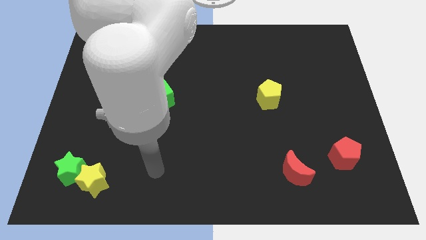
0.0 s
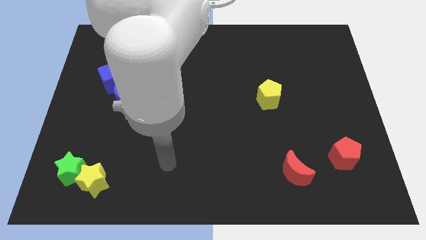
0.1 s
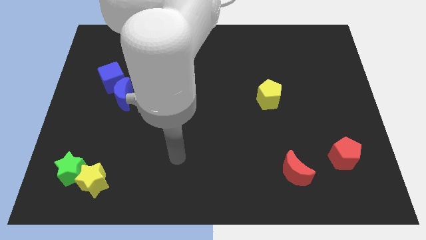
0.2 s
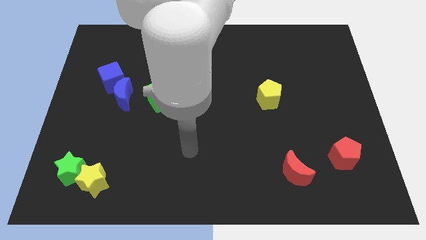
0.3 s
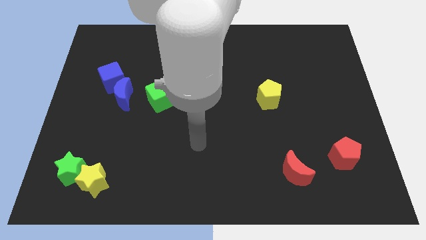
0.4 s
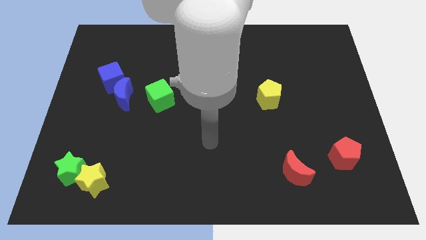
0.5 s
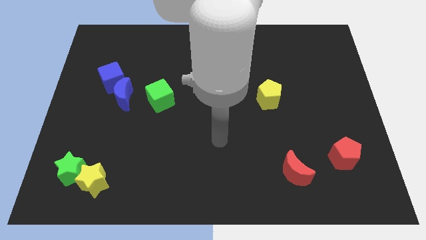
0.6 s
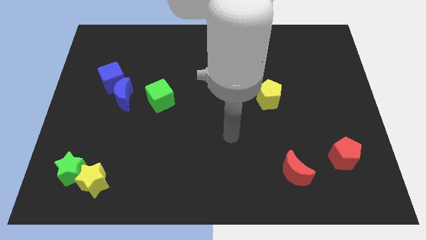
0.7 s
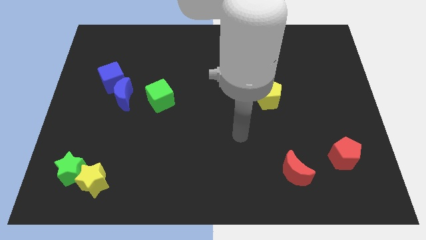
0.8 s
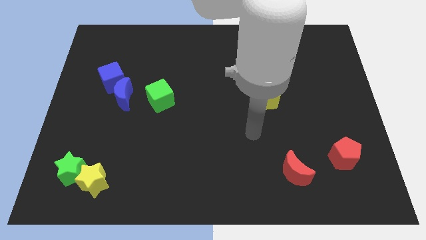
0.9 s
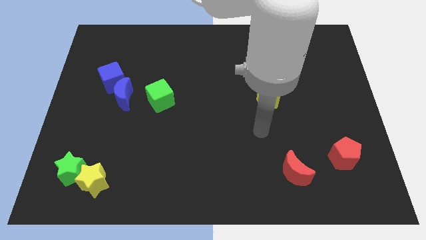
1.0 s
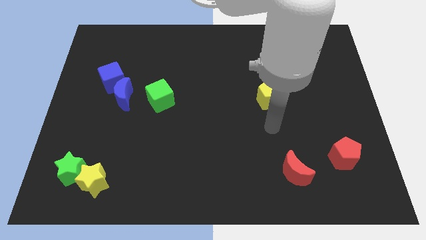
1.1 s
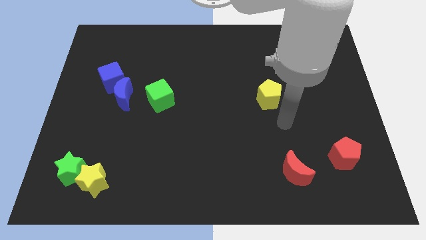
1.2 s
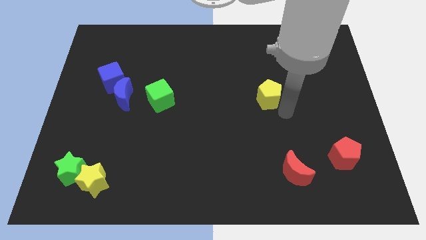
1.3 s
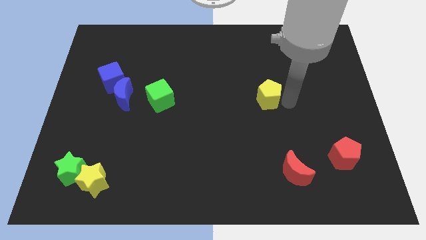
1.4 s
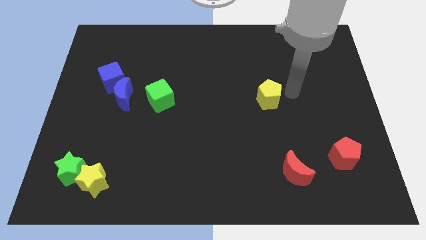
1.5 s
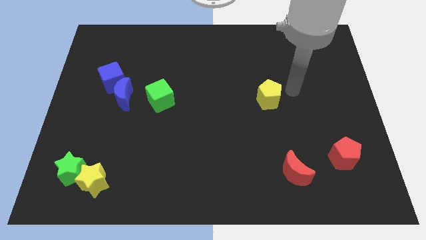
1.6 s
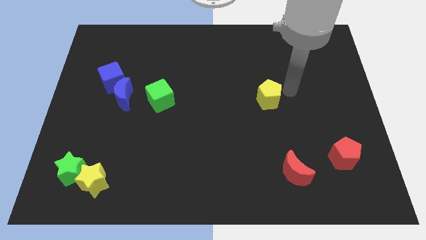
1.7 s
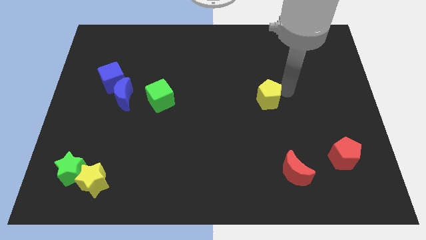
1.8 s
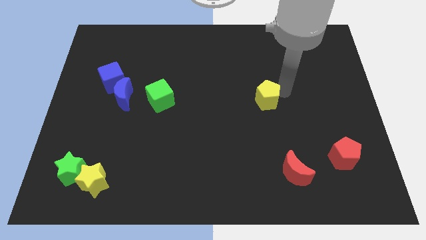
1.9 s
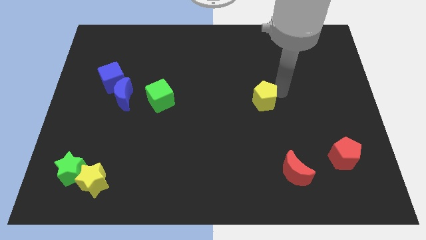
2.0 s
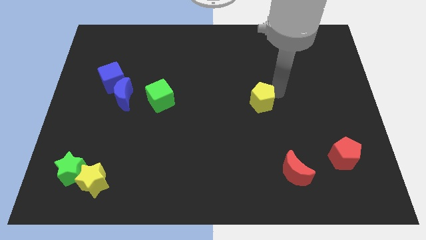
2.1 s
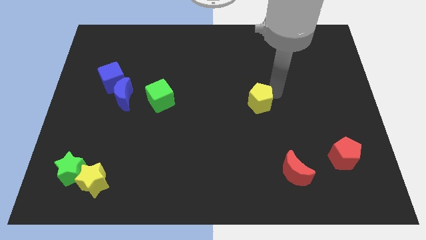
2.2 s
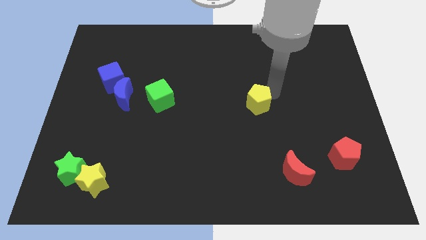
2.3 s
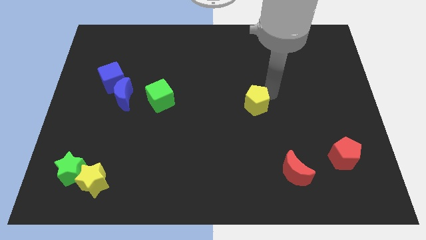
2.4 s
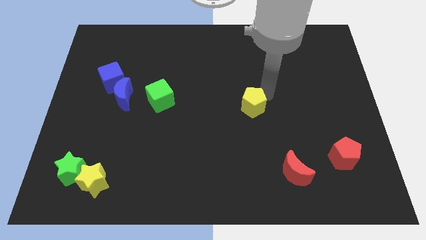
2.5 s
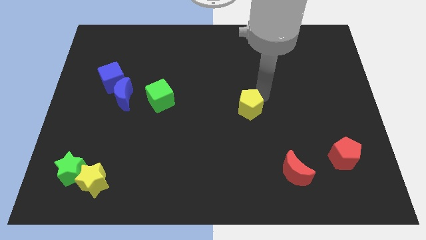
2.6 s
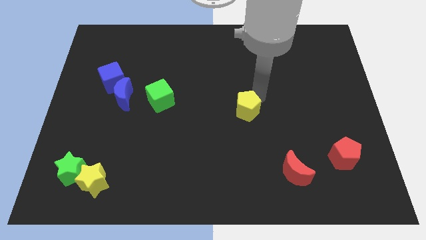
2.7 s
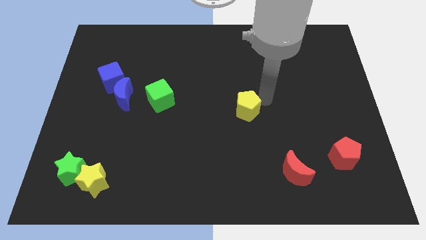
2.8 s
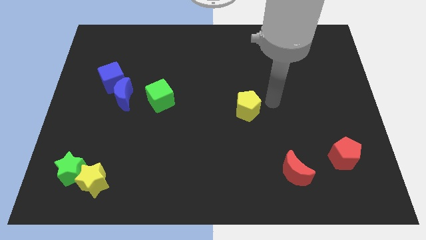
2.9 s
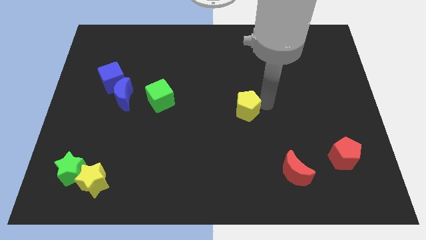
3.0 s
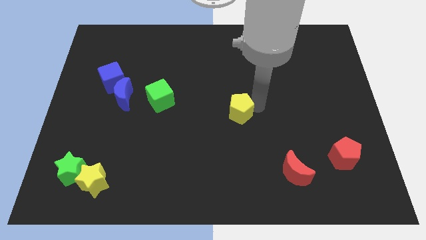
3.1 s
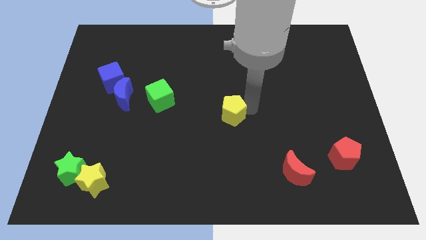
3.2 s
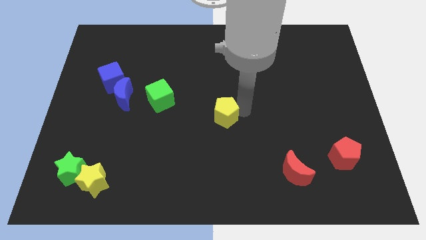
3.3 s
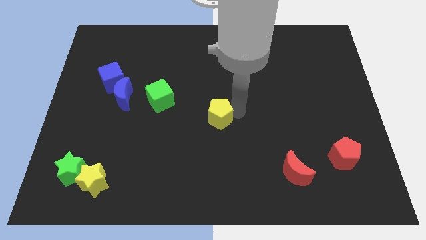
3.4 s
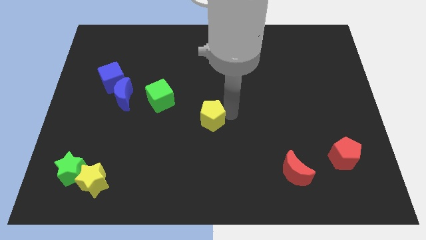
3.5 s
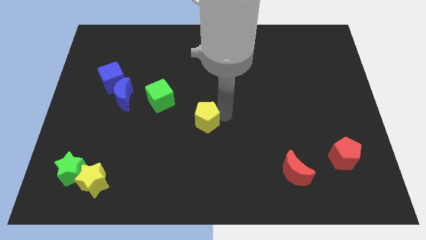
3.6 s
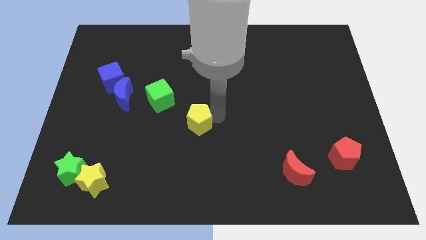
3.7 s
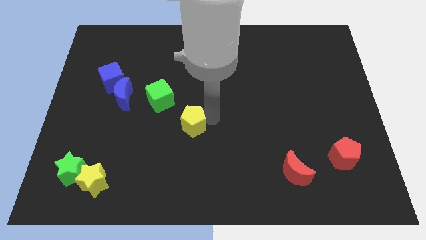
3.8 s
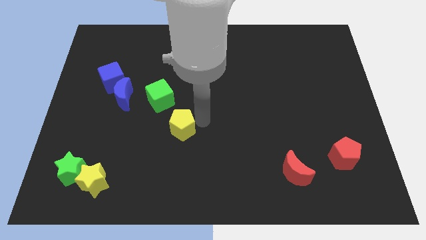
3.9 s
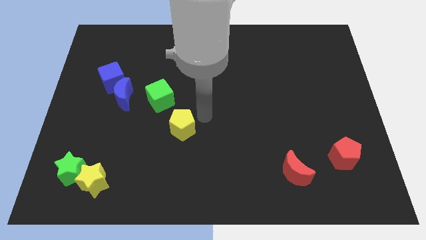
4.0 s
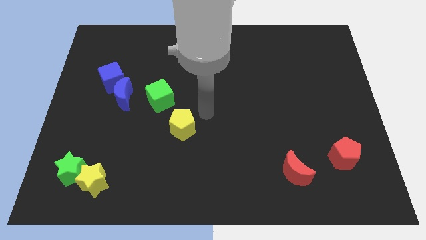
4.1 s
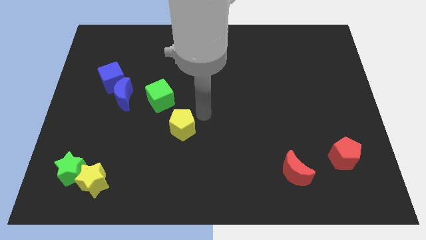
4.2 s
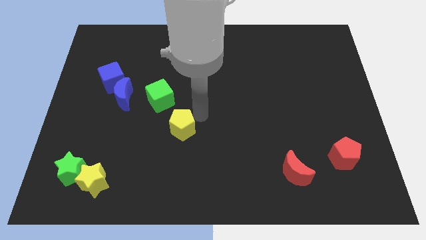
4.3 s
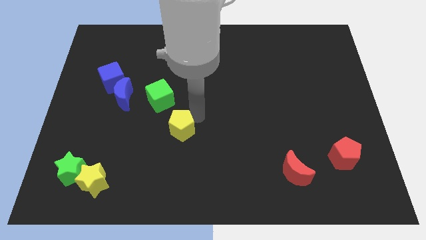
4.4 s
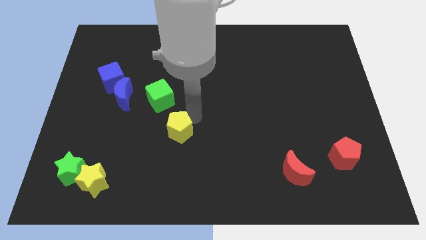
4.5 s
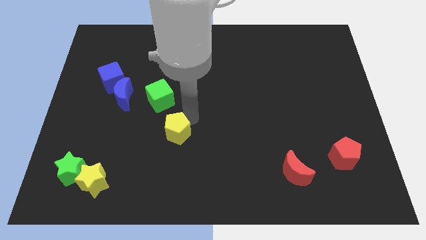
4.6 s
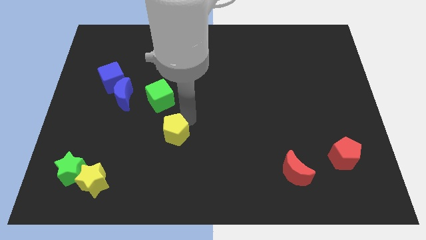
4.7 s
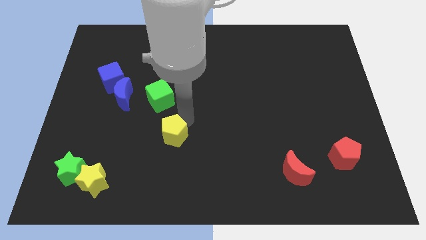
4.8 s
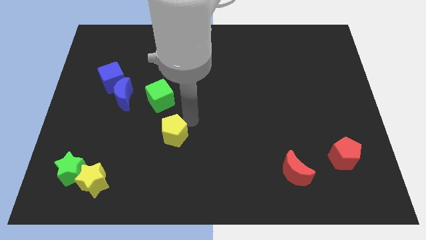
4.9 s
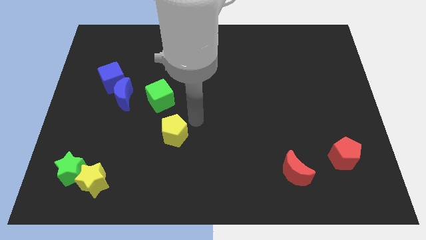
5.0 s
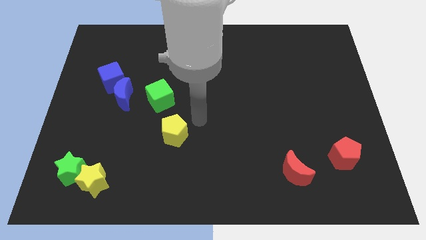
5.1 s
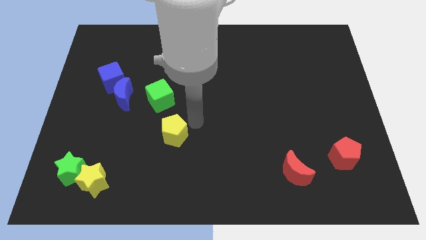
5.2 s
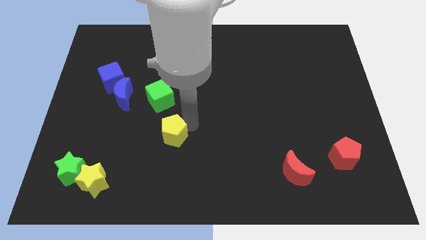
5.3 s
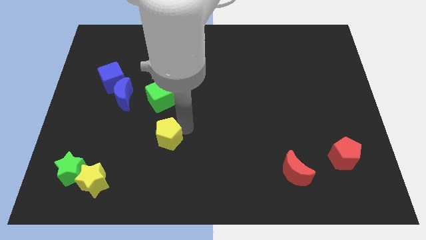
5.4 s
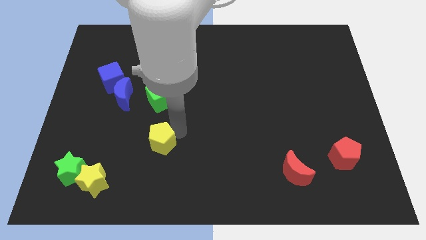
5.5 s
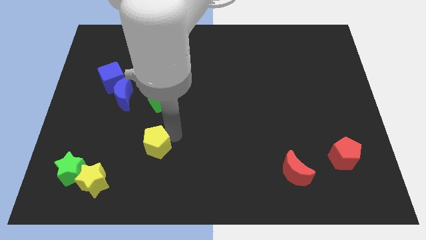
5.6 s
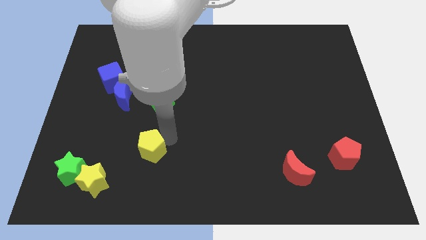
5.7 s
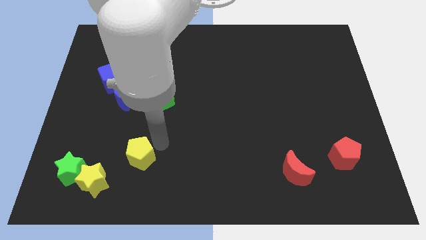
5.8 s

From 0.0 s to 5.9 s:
move the yellow pentagon to the right of the green star

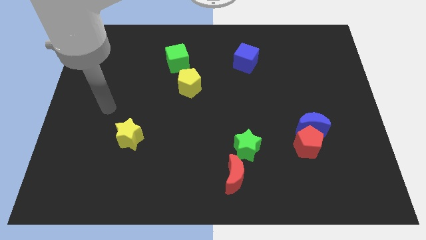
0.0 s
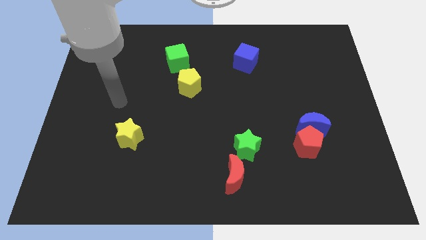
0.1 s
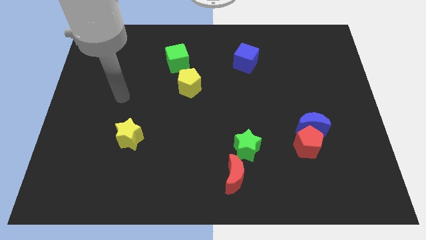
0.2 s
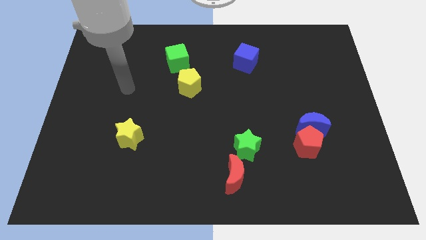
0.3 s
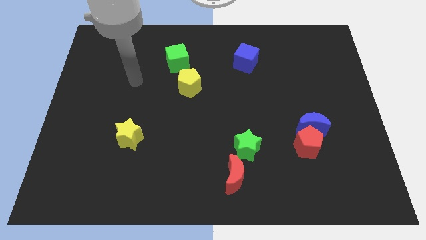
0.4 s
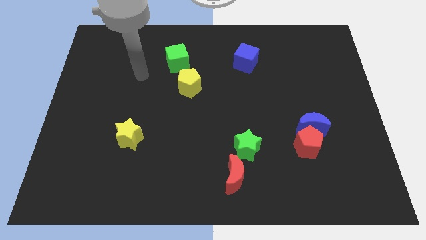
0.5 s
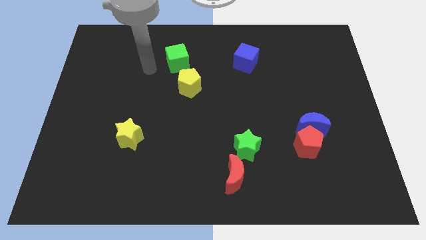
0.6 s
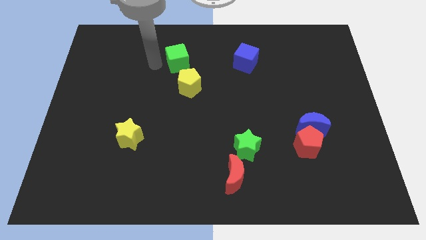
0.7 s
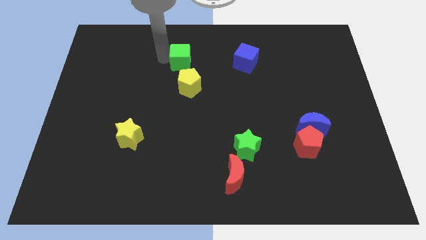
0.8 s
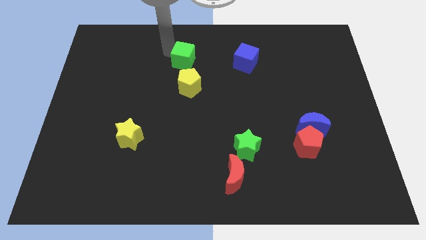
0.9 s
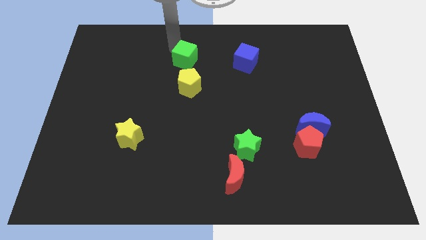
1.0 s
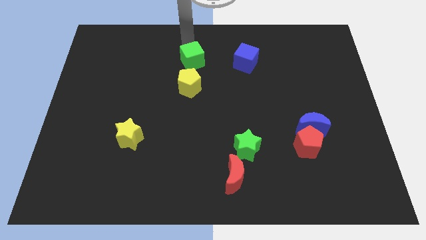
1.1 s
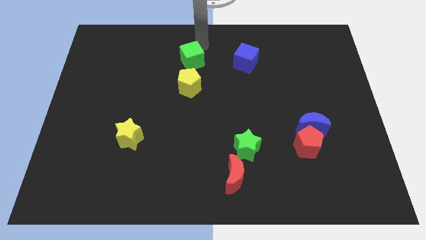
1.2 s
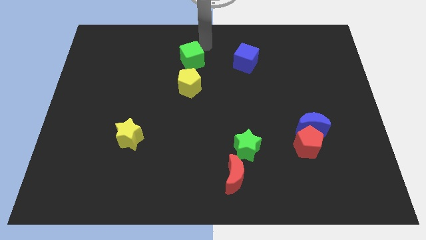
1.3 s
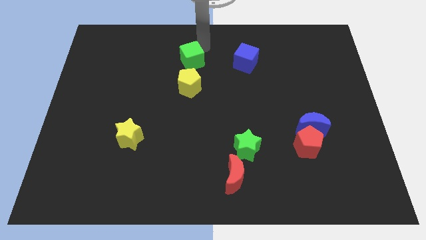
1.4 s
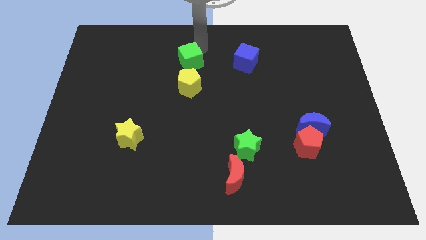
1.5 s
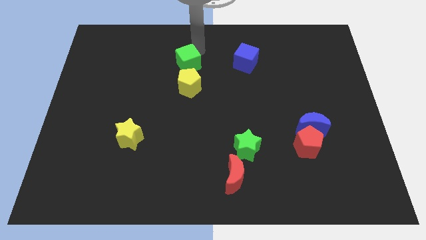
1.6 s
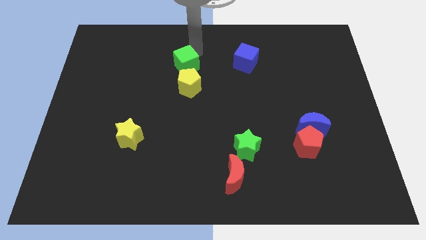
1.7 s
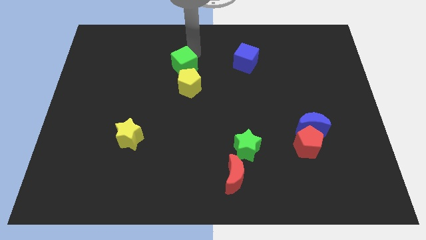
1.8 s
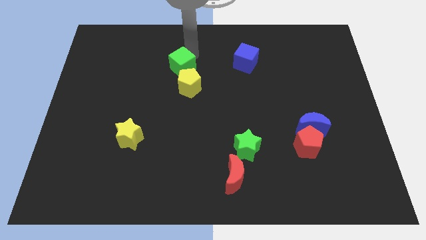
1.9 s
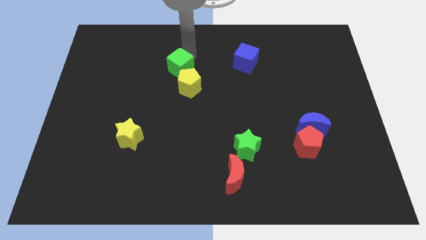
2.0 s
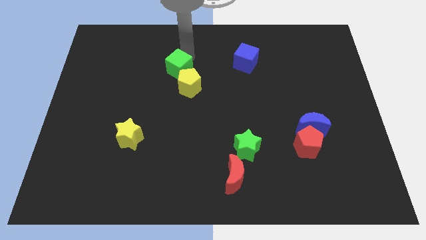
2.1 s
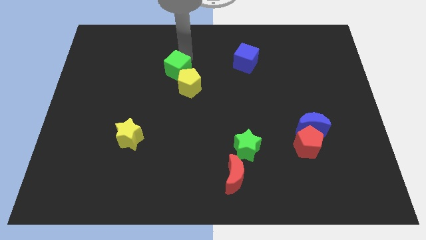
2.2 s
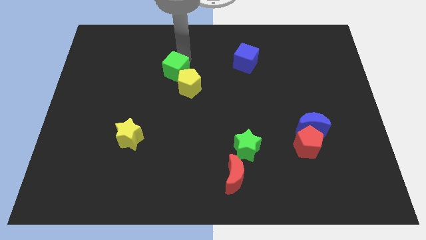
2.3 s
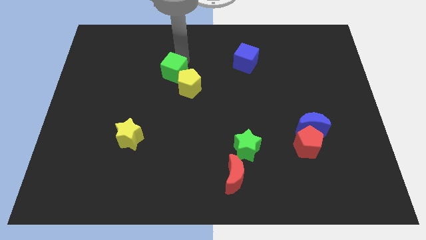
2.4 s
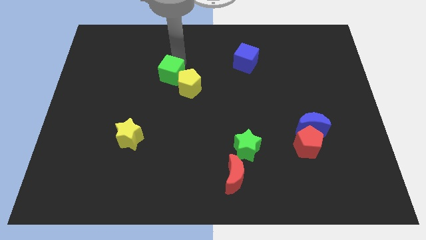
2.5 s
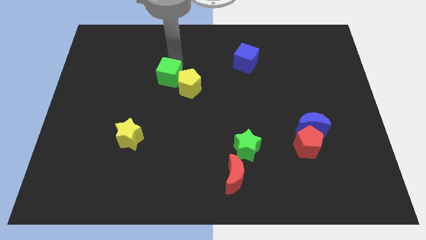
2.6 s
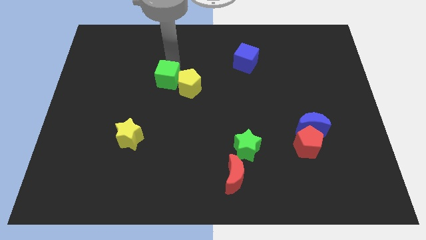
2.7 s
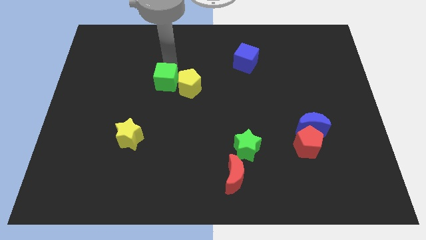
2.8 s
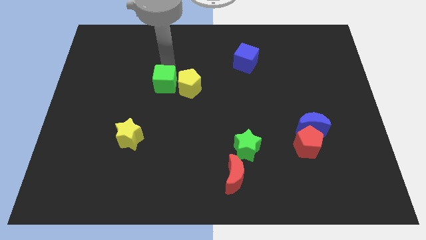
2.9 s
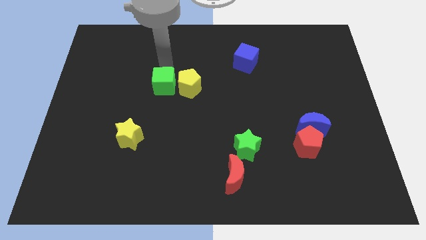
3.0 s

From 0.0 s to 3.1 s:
move the green cube to the bottom left side of the yellow pentagon
